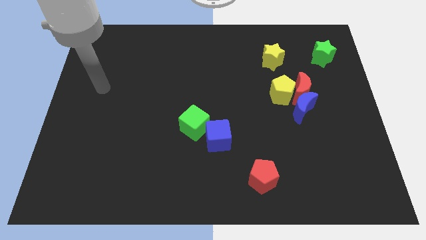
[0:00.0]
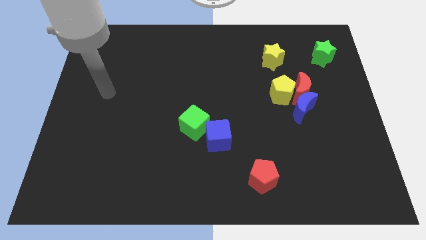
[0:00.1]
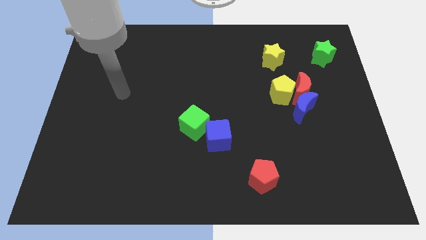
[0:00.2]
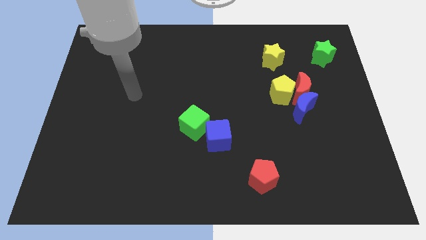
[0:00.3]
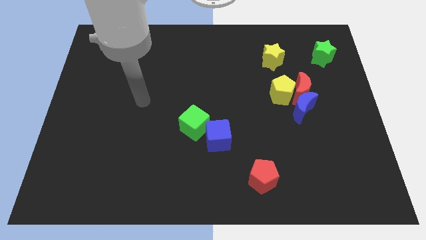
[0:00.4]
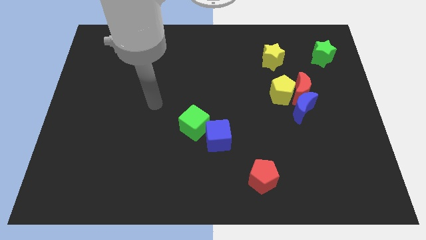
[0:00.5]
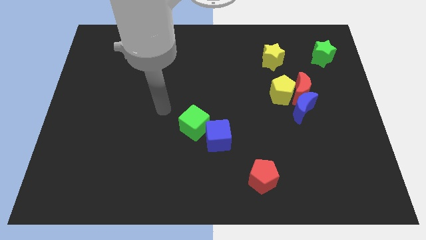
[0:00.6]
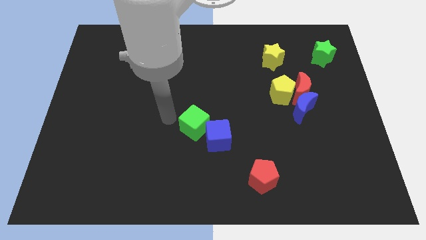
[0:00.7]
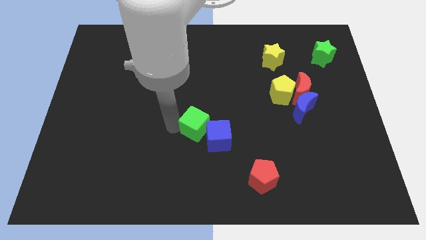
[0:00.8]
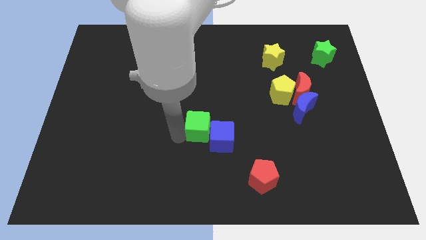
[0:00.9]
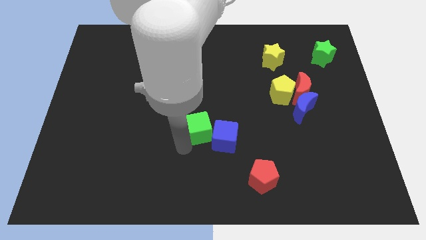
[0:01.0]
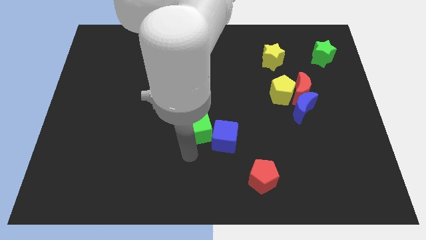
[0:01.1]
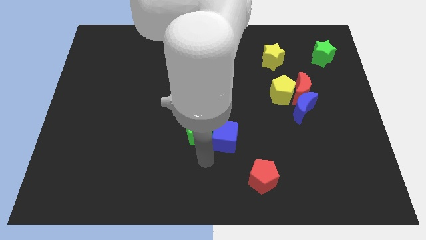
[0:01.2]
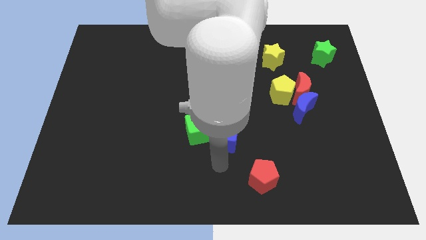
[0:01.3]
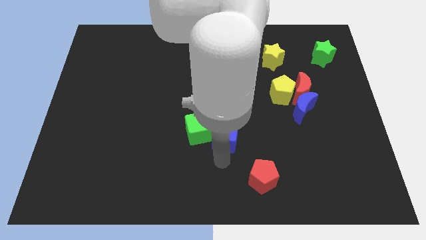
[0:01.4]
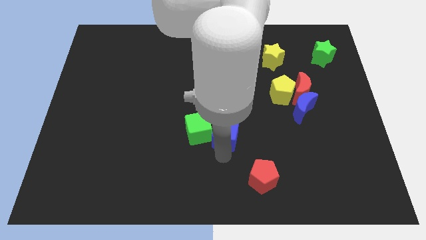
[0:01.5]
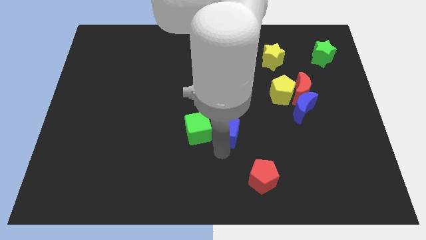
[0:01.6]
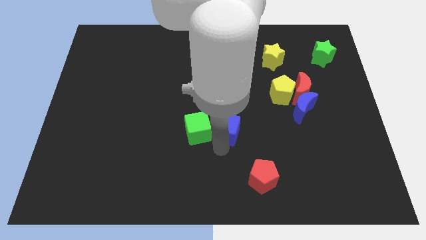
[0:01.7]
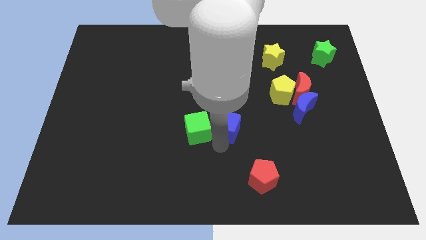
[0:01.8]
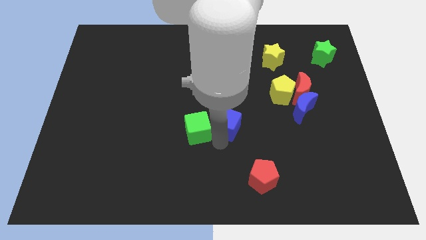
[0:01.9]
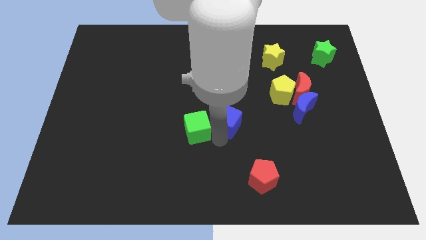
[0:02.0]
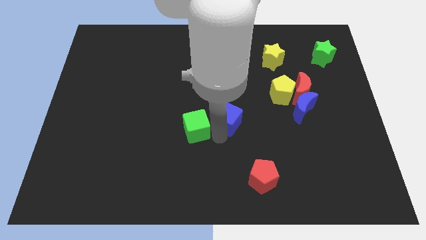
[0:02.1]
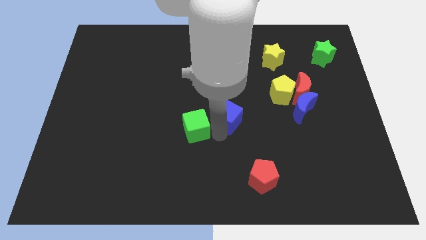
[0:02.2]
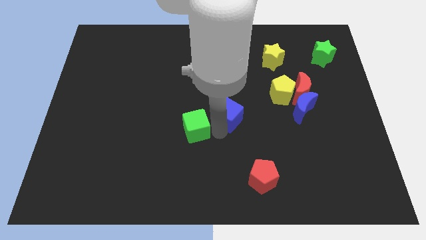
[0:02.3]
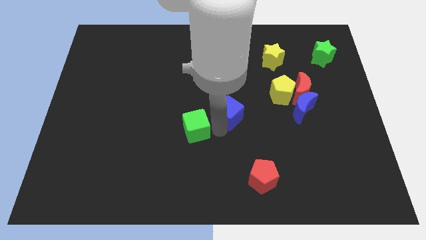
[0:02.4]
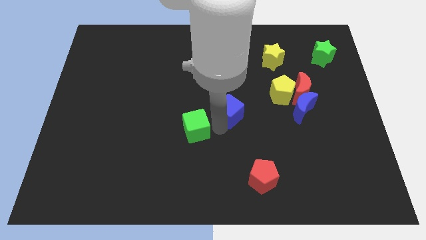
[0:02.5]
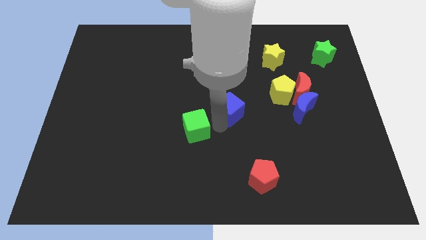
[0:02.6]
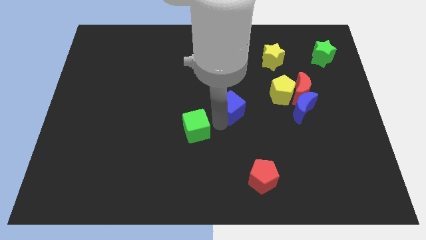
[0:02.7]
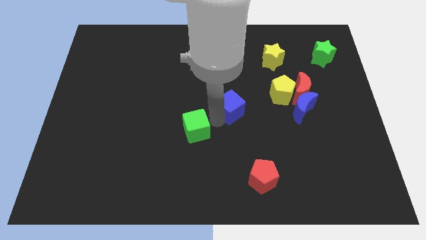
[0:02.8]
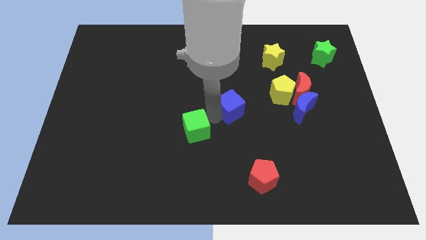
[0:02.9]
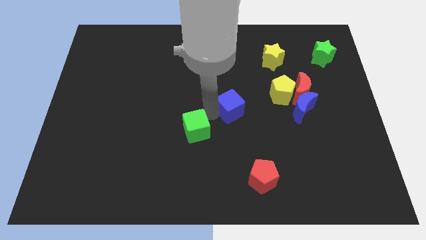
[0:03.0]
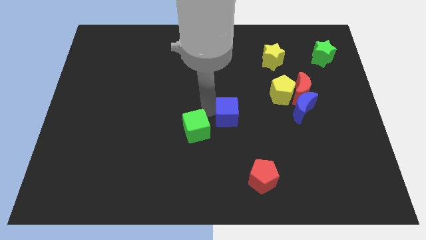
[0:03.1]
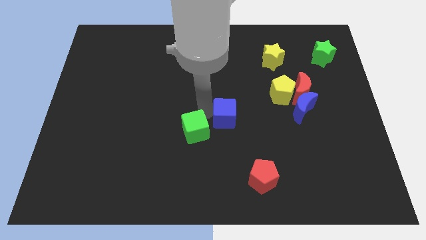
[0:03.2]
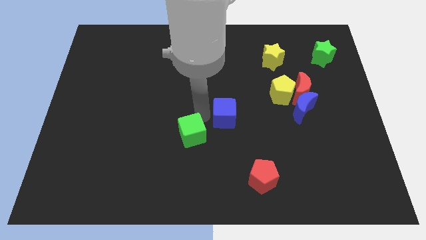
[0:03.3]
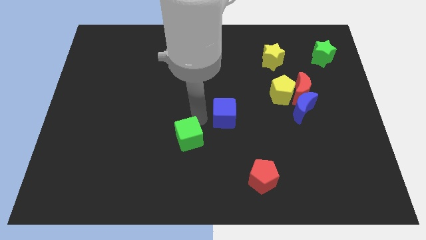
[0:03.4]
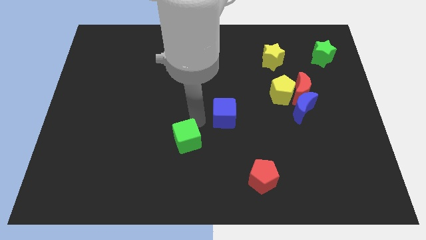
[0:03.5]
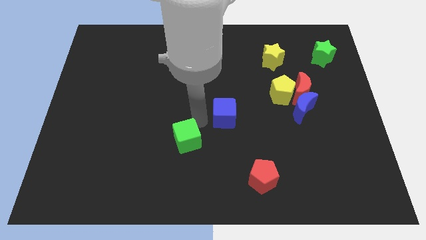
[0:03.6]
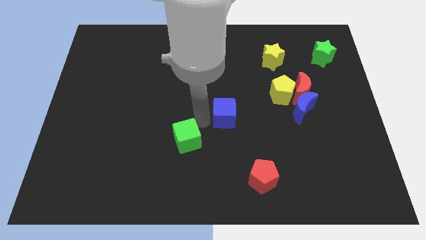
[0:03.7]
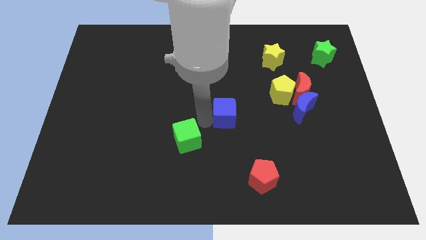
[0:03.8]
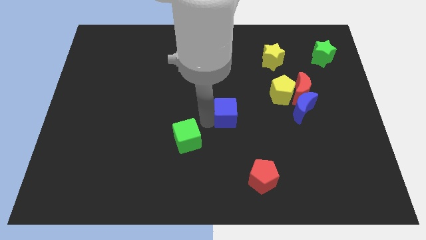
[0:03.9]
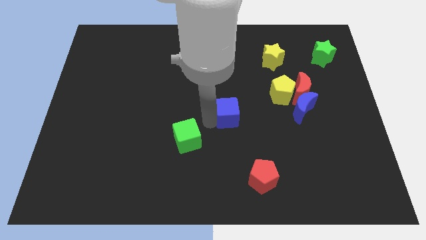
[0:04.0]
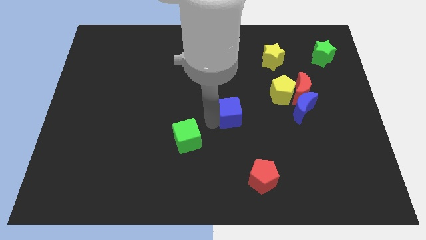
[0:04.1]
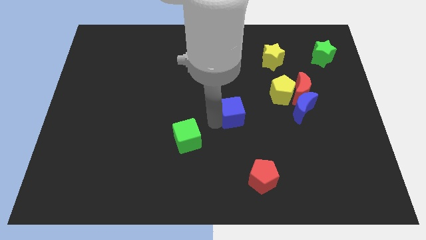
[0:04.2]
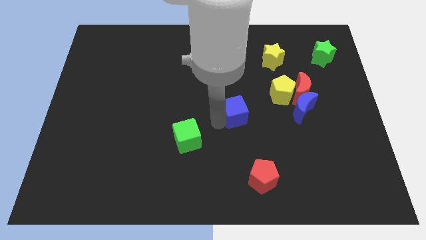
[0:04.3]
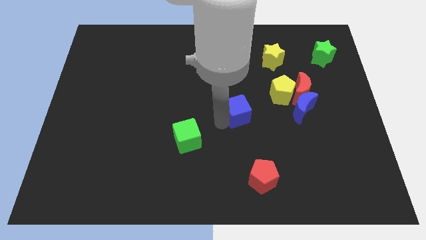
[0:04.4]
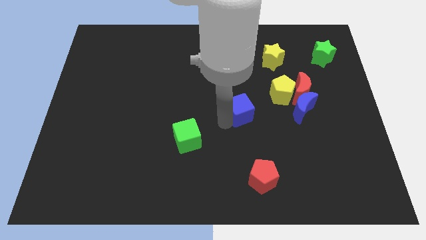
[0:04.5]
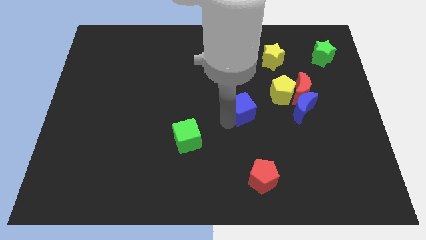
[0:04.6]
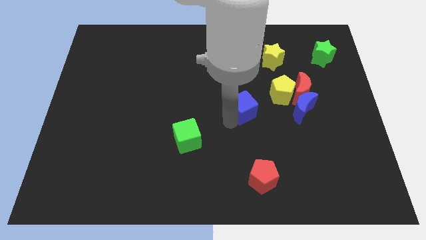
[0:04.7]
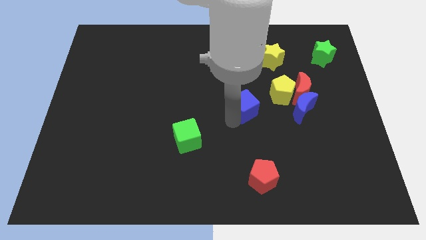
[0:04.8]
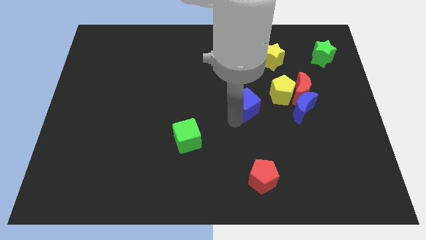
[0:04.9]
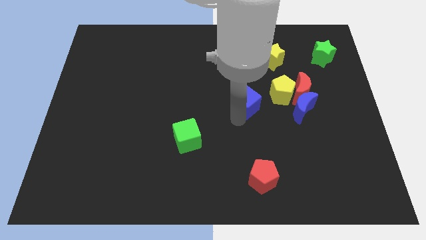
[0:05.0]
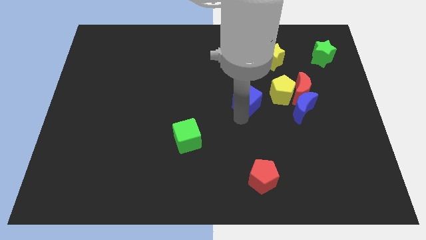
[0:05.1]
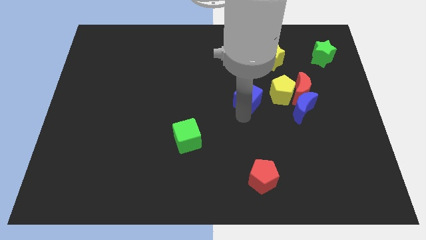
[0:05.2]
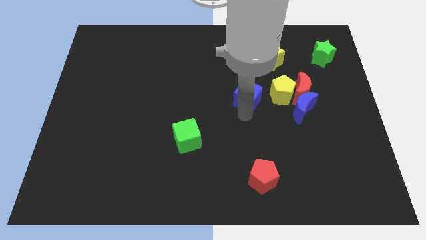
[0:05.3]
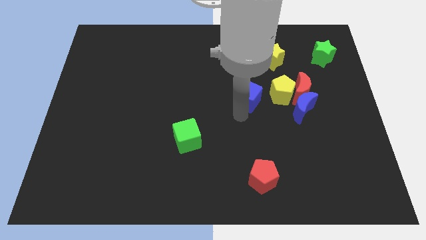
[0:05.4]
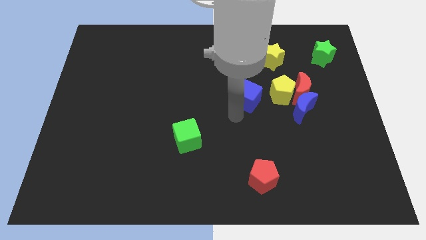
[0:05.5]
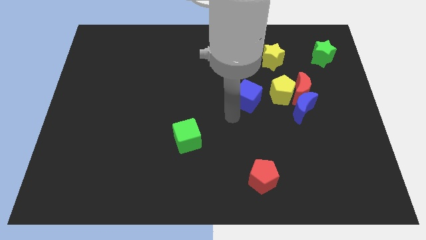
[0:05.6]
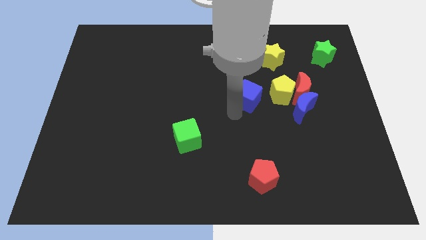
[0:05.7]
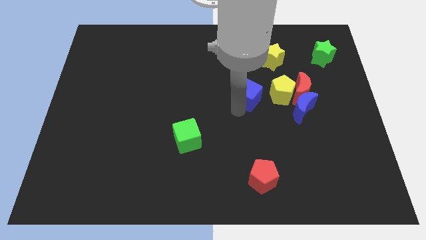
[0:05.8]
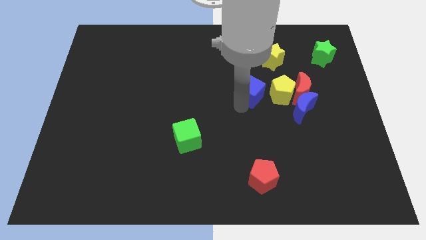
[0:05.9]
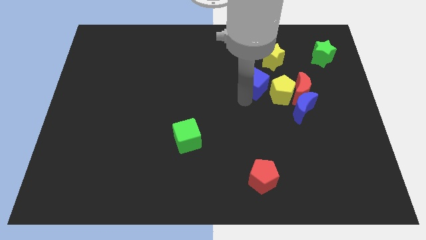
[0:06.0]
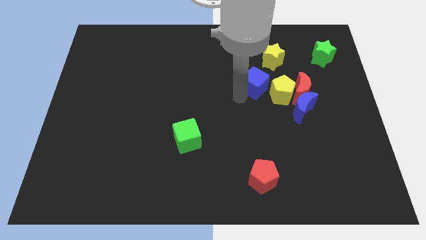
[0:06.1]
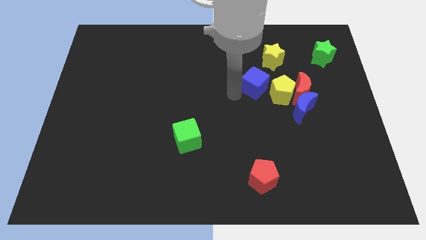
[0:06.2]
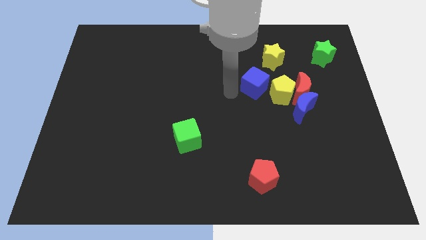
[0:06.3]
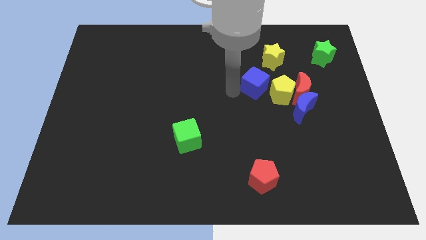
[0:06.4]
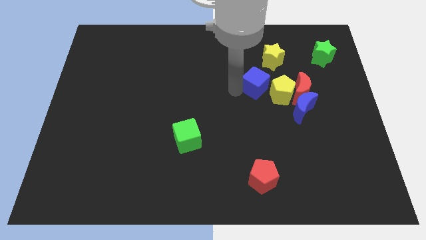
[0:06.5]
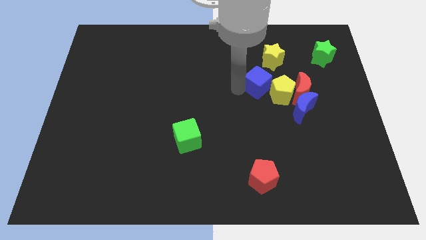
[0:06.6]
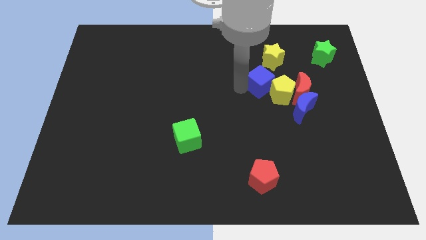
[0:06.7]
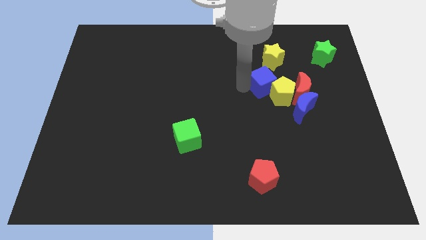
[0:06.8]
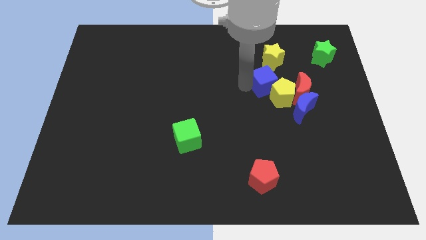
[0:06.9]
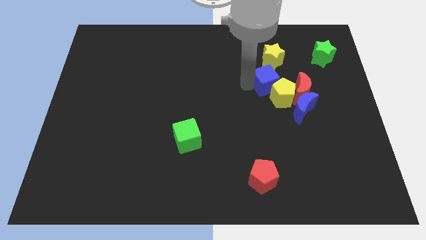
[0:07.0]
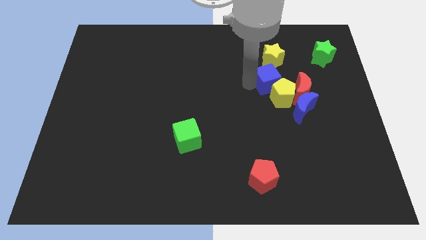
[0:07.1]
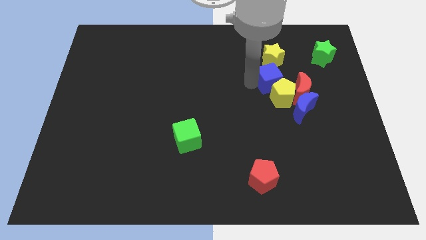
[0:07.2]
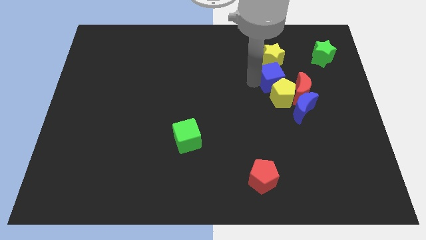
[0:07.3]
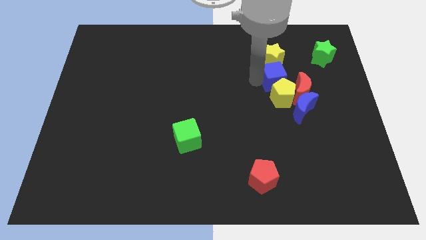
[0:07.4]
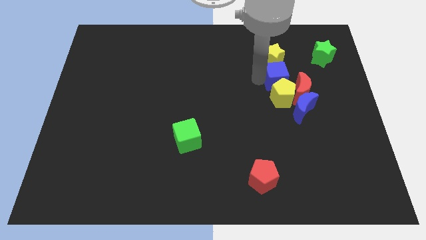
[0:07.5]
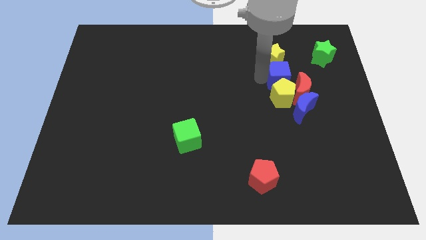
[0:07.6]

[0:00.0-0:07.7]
slide the blue cube above the blue moon
